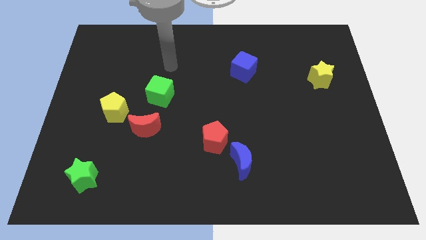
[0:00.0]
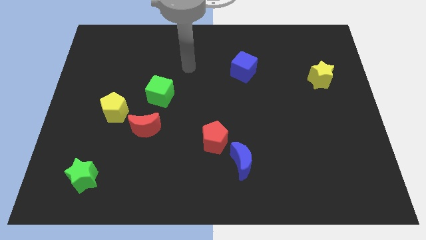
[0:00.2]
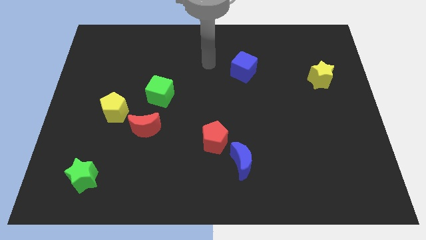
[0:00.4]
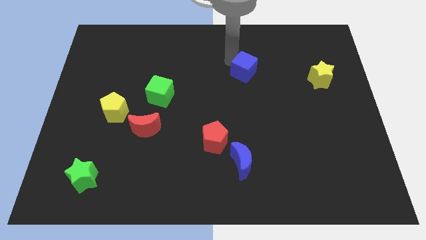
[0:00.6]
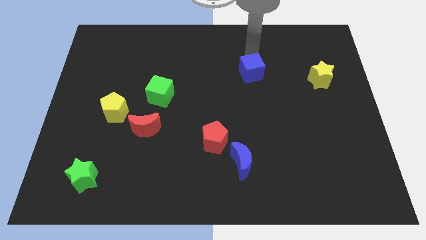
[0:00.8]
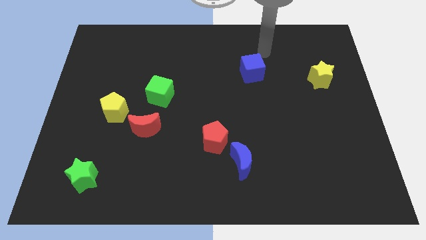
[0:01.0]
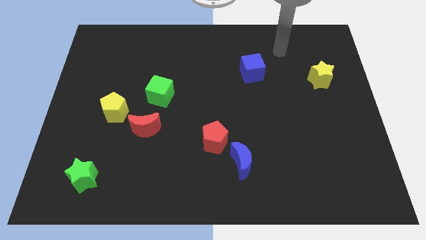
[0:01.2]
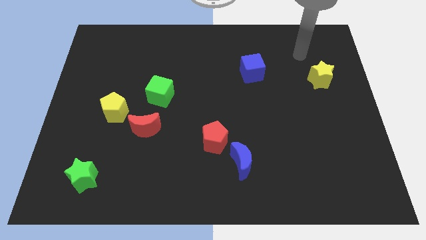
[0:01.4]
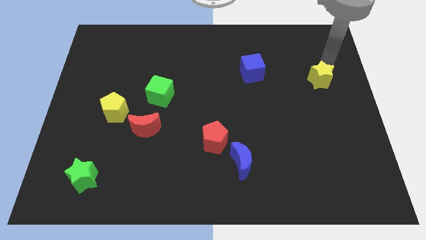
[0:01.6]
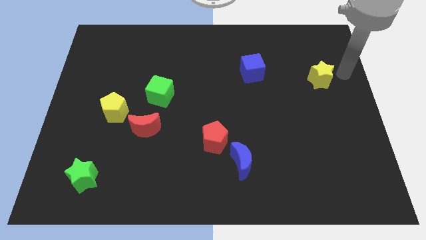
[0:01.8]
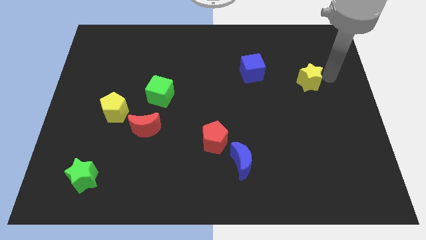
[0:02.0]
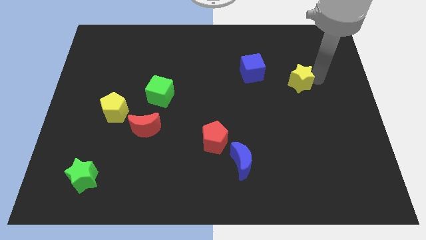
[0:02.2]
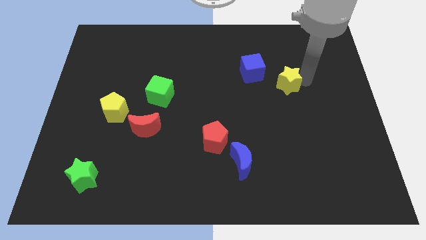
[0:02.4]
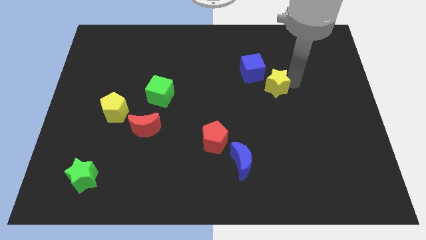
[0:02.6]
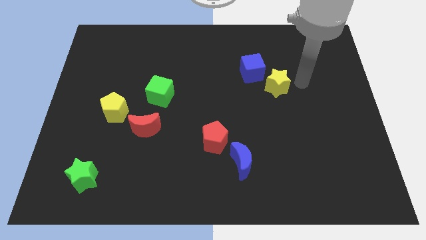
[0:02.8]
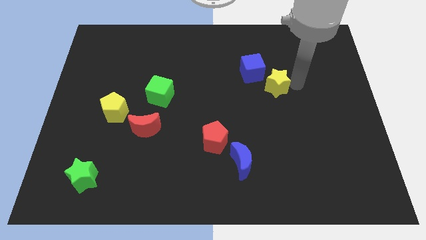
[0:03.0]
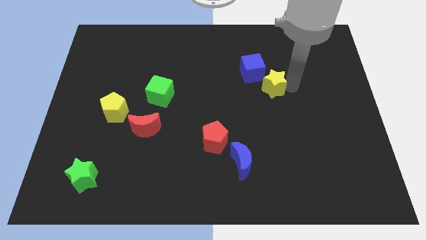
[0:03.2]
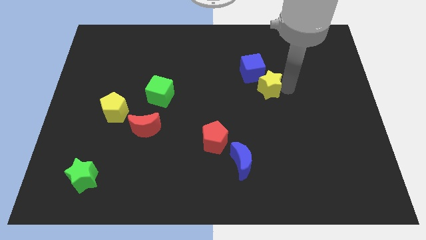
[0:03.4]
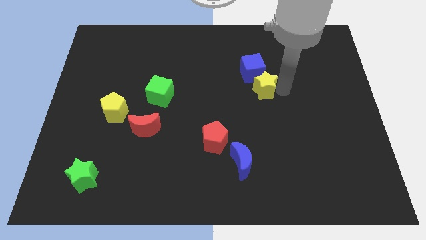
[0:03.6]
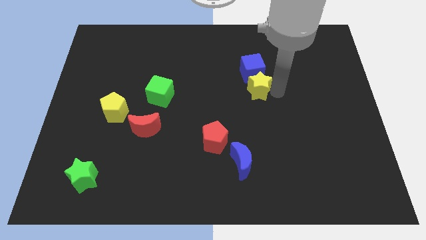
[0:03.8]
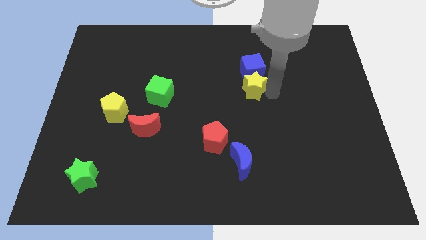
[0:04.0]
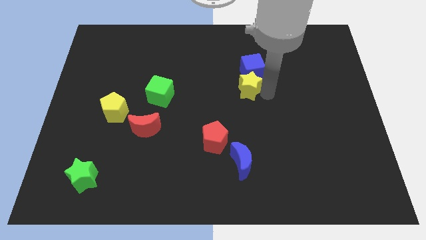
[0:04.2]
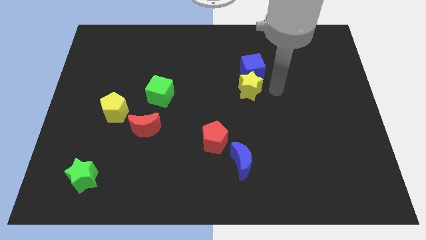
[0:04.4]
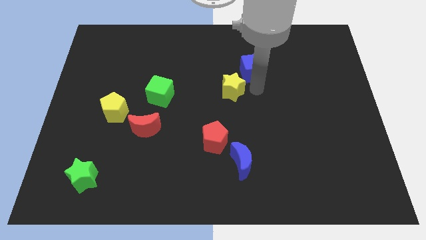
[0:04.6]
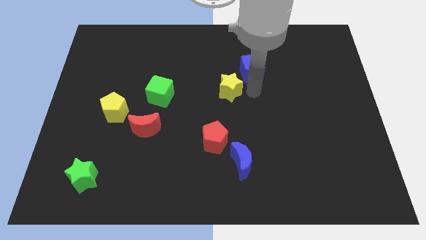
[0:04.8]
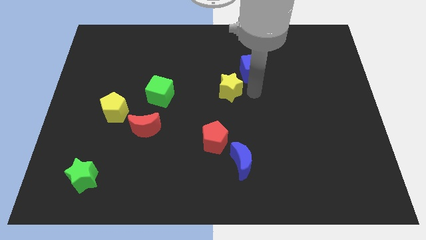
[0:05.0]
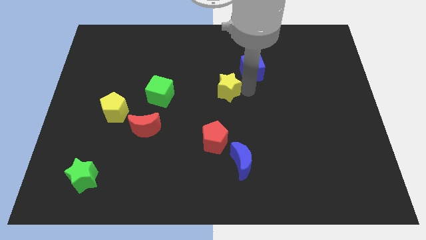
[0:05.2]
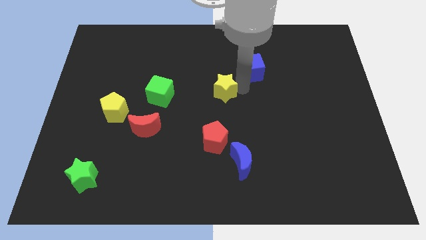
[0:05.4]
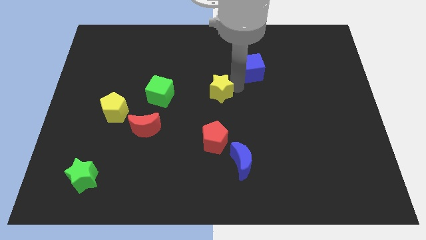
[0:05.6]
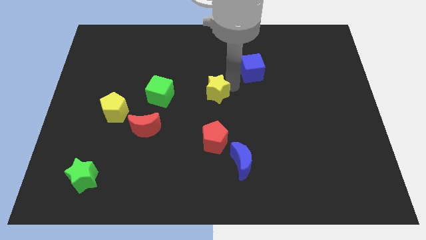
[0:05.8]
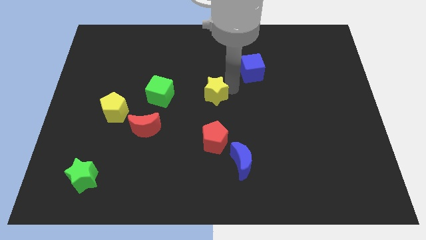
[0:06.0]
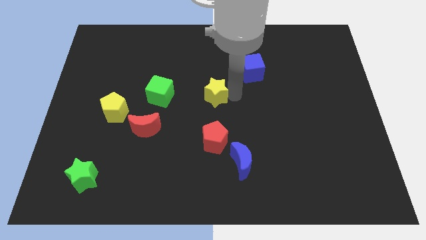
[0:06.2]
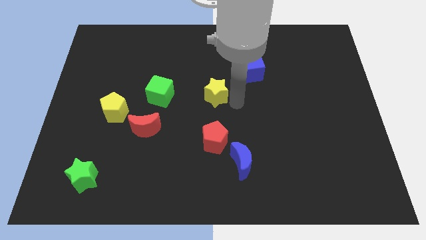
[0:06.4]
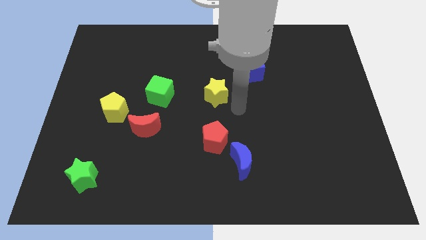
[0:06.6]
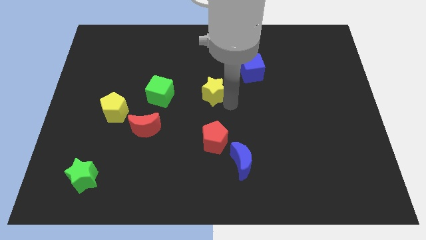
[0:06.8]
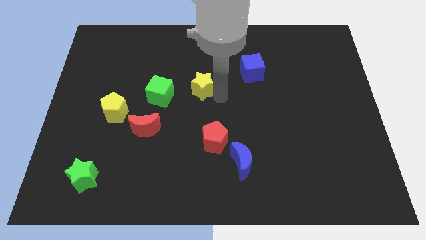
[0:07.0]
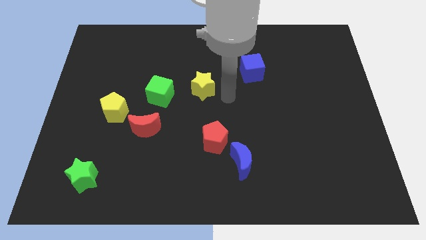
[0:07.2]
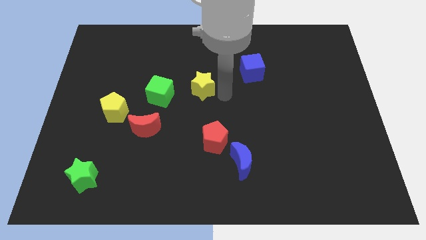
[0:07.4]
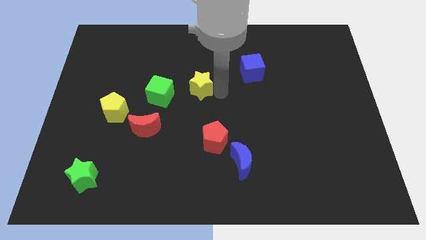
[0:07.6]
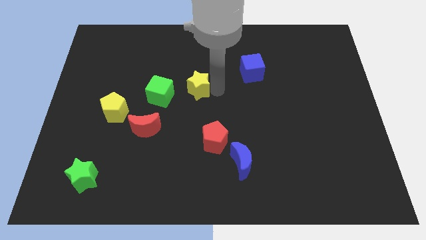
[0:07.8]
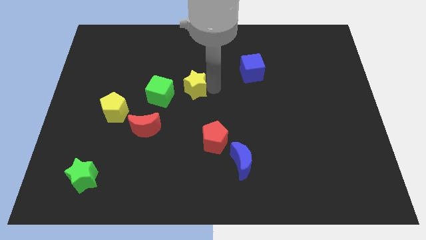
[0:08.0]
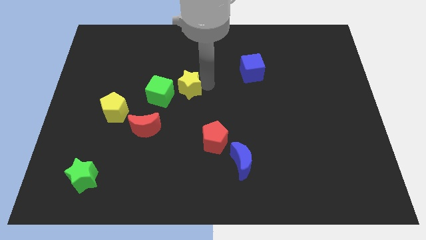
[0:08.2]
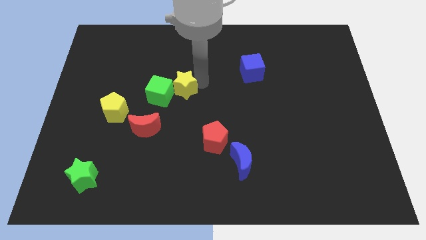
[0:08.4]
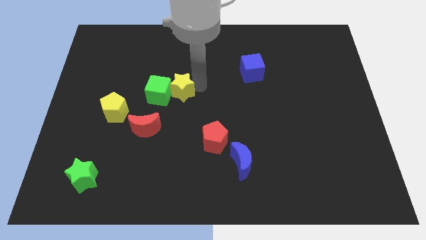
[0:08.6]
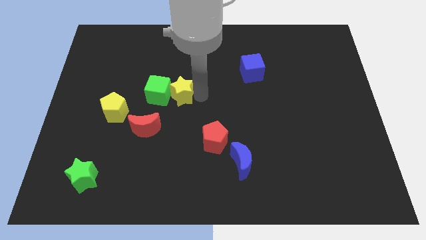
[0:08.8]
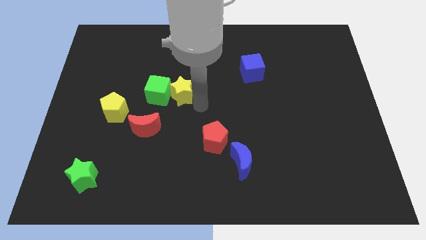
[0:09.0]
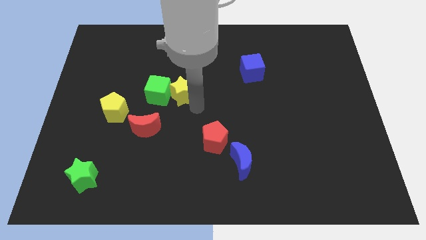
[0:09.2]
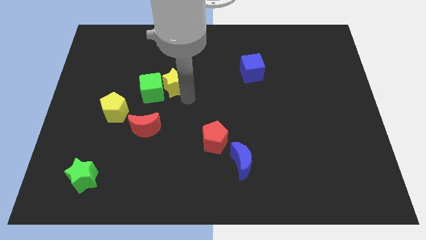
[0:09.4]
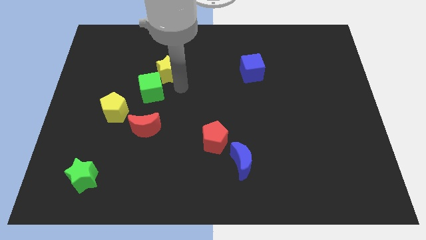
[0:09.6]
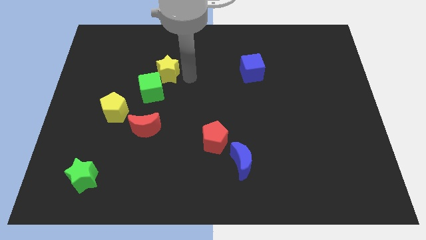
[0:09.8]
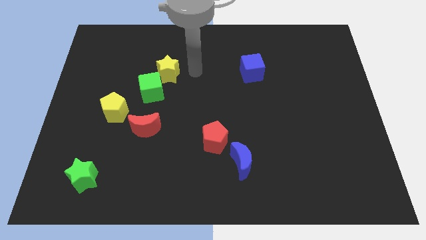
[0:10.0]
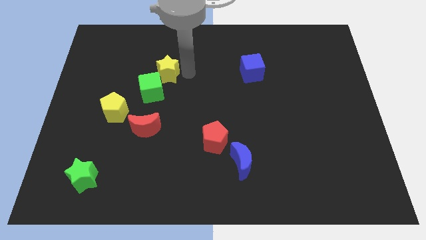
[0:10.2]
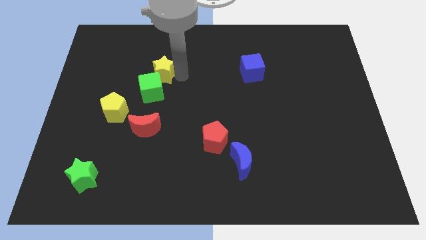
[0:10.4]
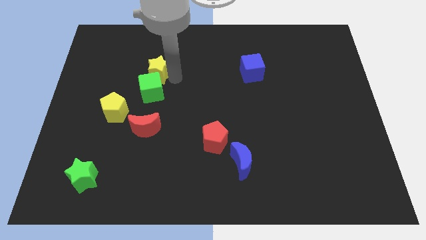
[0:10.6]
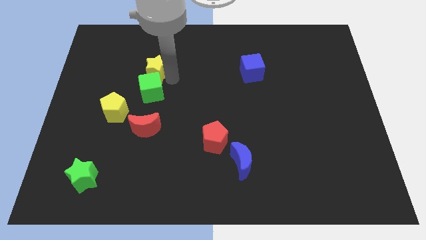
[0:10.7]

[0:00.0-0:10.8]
move the yellow star to the top left side of the green cube

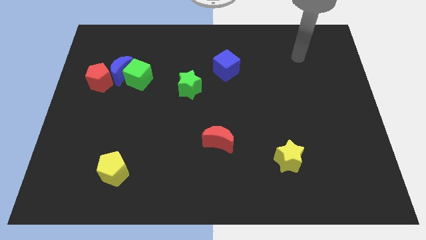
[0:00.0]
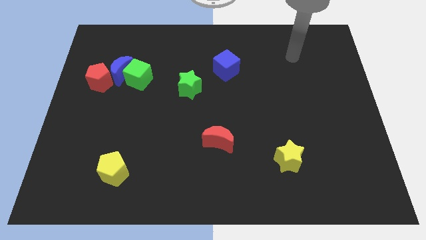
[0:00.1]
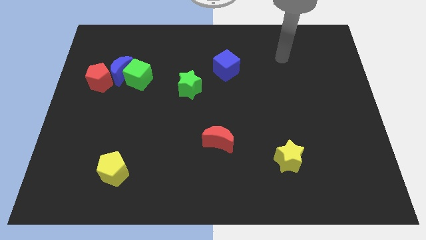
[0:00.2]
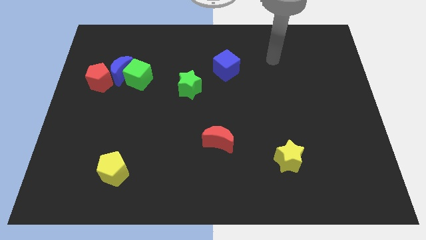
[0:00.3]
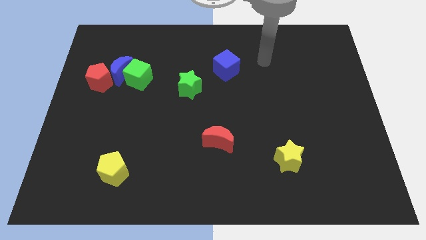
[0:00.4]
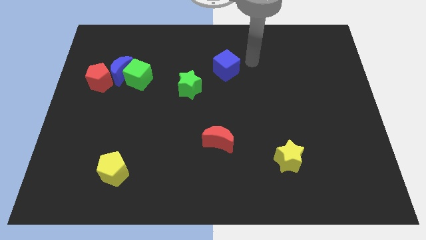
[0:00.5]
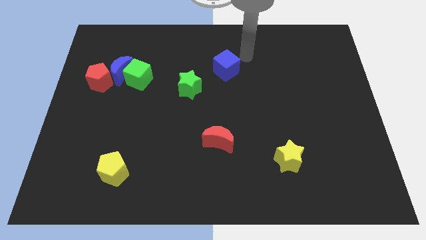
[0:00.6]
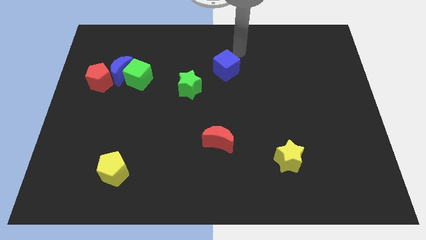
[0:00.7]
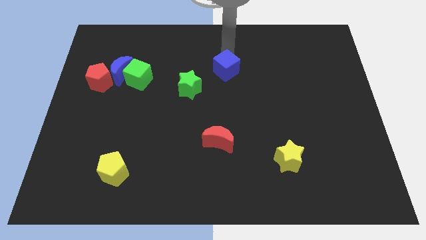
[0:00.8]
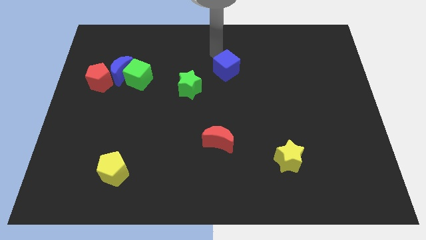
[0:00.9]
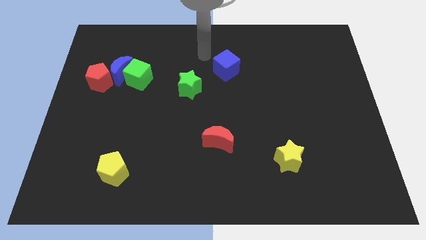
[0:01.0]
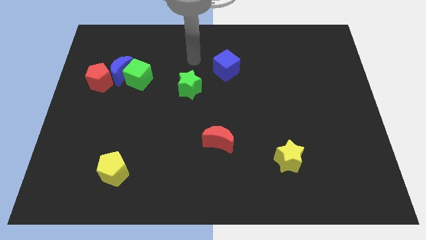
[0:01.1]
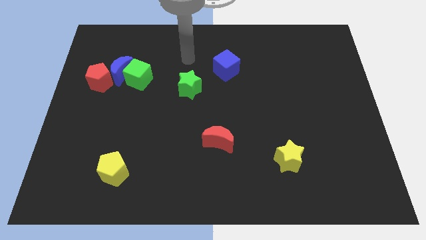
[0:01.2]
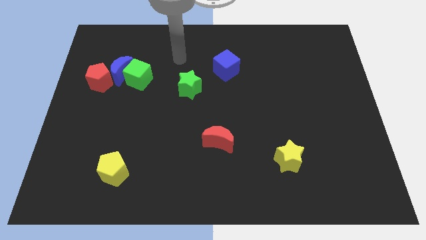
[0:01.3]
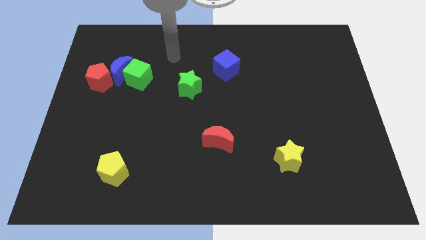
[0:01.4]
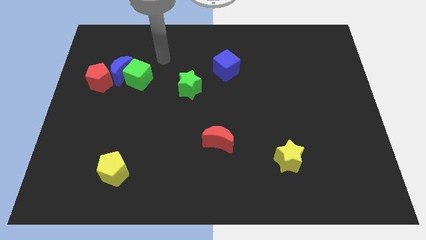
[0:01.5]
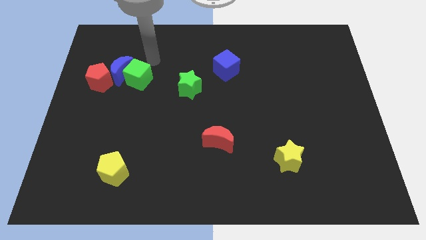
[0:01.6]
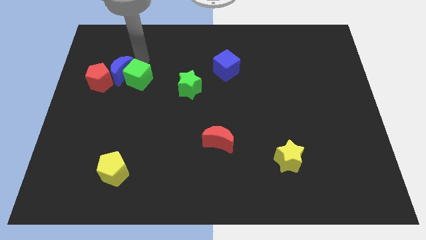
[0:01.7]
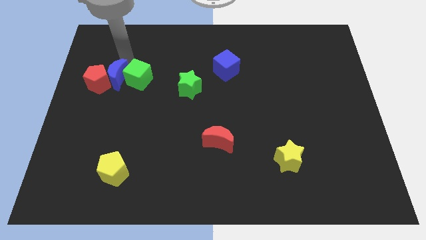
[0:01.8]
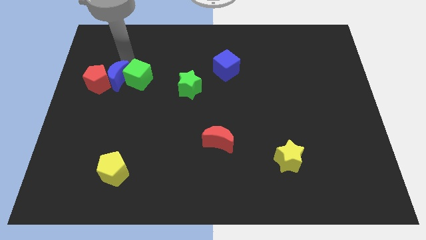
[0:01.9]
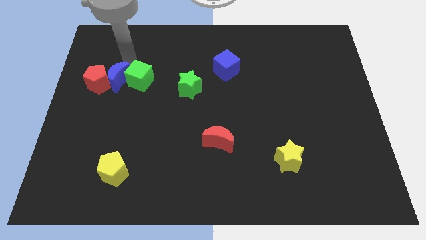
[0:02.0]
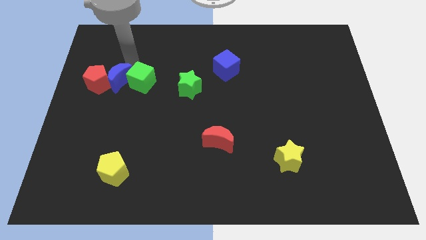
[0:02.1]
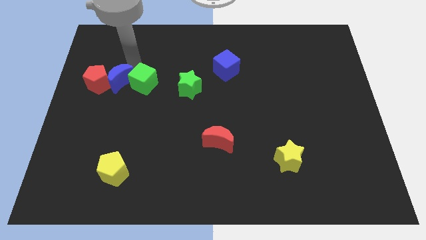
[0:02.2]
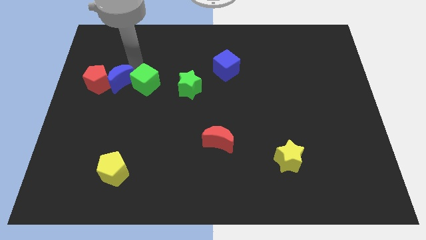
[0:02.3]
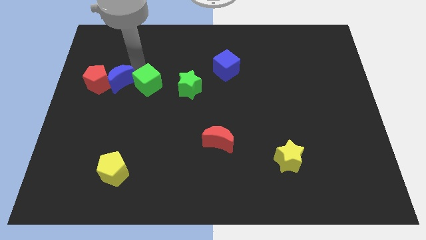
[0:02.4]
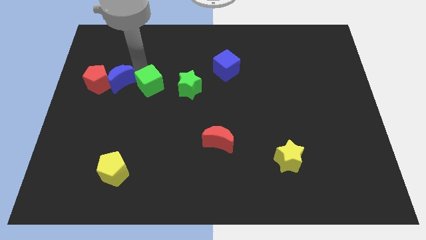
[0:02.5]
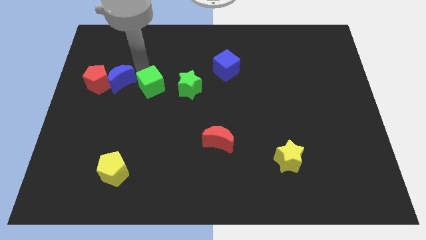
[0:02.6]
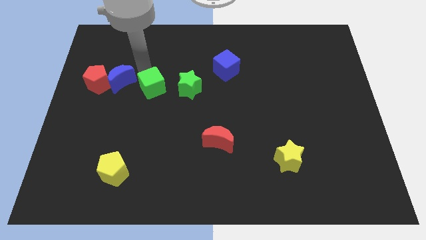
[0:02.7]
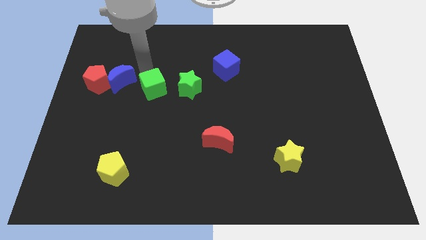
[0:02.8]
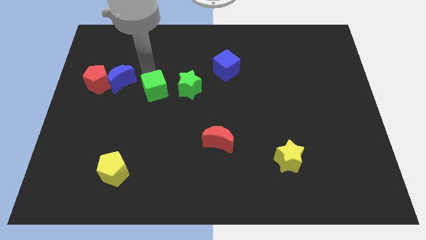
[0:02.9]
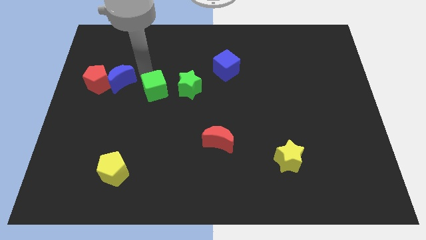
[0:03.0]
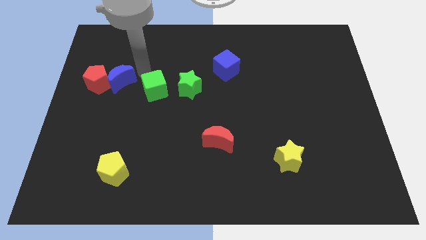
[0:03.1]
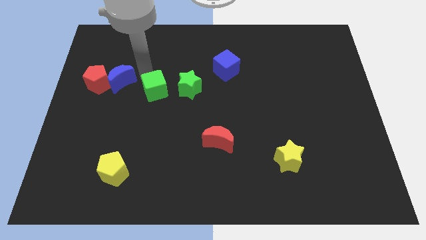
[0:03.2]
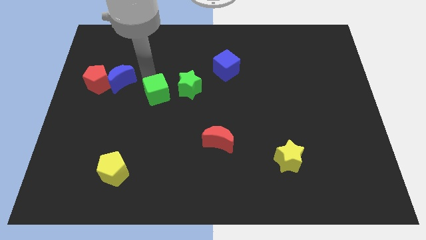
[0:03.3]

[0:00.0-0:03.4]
put the green cube to the bottom left of the green star
